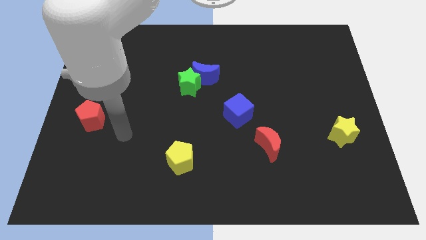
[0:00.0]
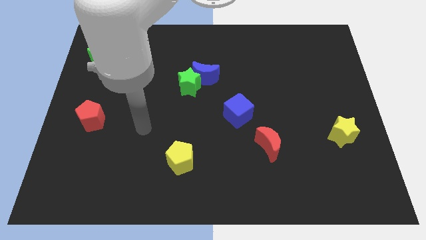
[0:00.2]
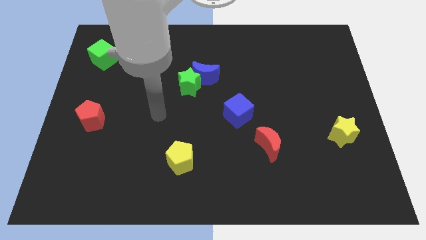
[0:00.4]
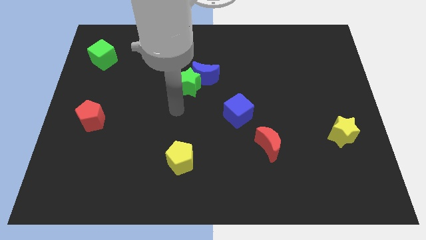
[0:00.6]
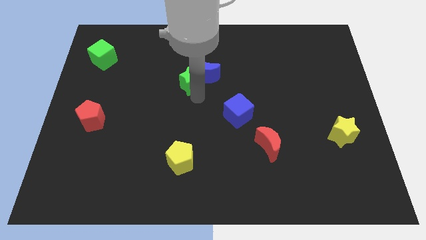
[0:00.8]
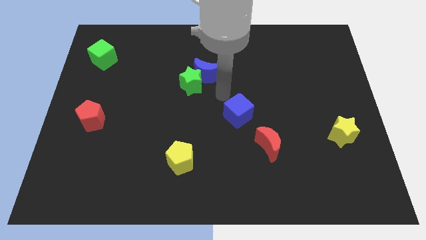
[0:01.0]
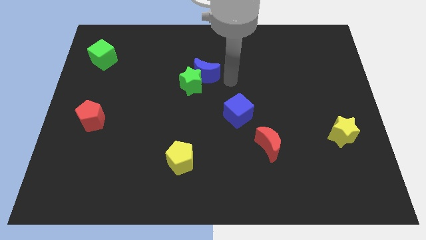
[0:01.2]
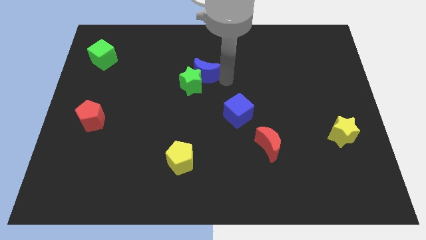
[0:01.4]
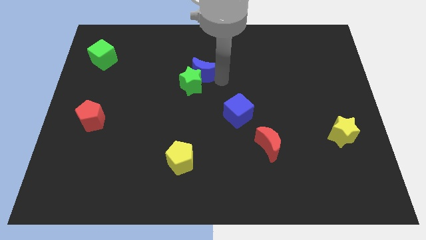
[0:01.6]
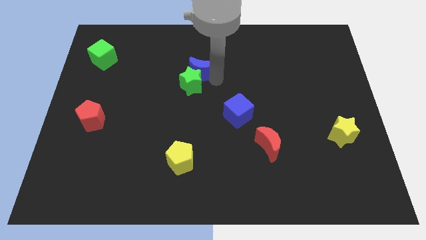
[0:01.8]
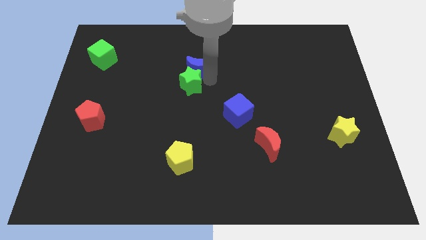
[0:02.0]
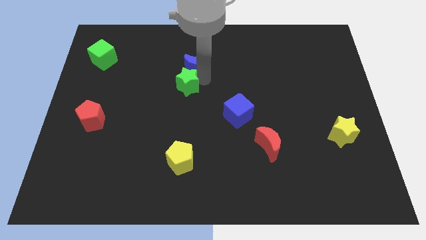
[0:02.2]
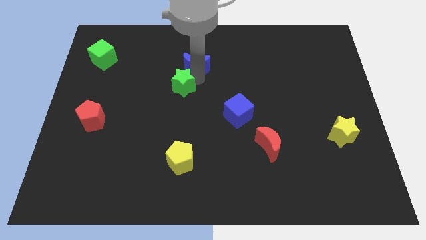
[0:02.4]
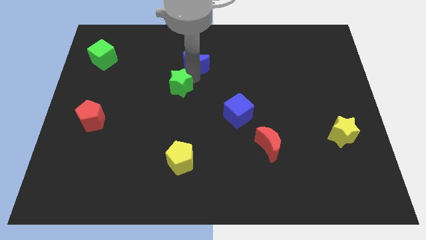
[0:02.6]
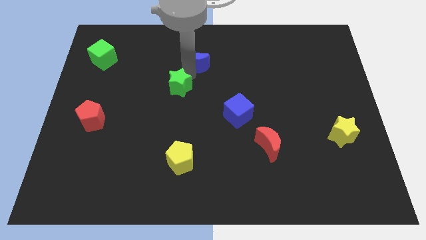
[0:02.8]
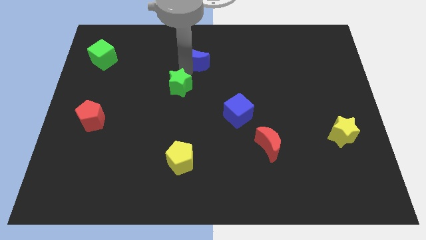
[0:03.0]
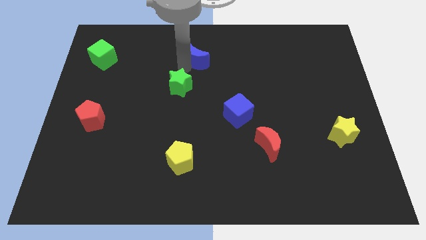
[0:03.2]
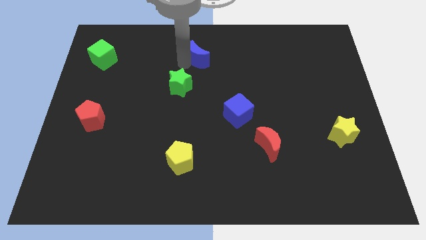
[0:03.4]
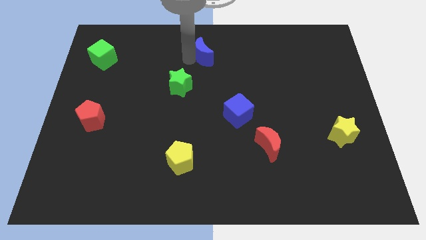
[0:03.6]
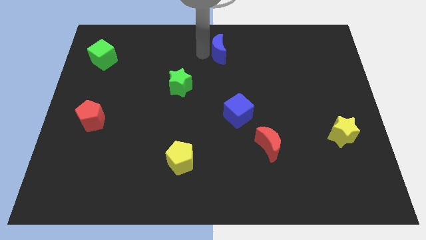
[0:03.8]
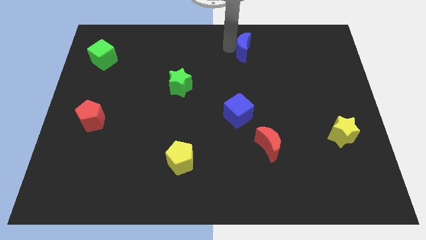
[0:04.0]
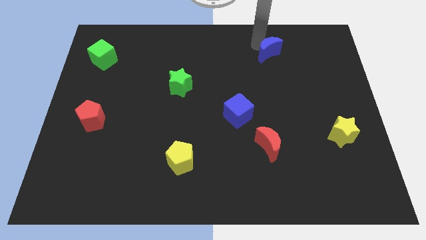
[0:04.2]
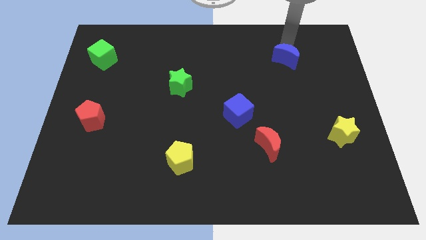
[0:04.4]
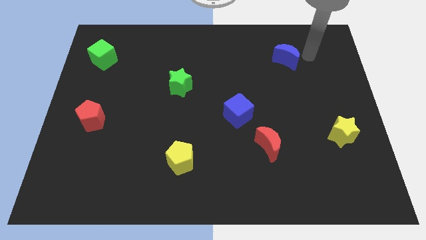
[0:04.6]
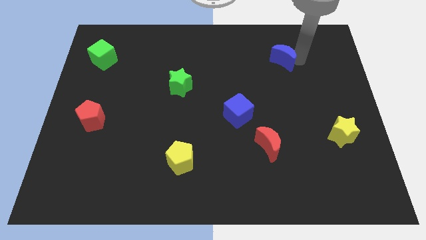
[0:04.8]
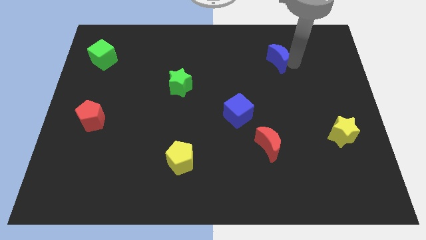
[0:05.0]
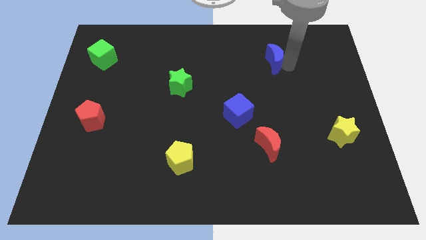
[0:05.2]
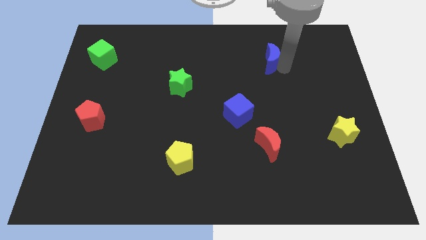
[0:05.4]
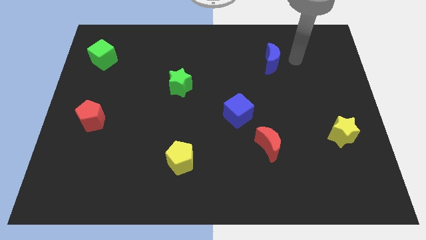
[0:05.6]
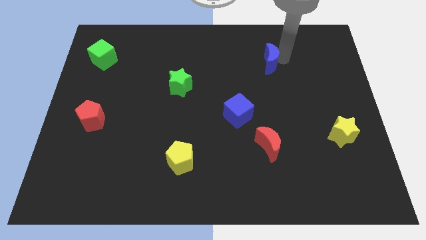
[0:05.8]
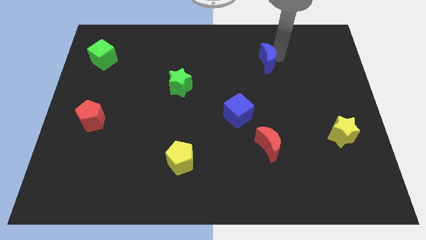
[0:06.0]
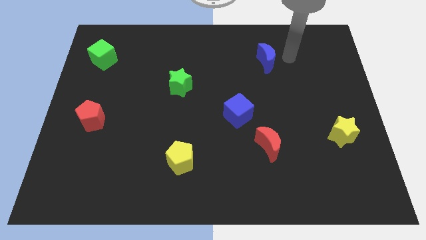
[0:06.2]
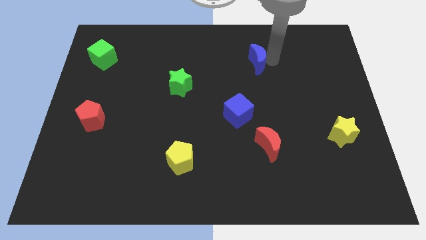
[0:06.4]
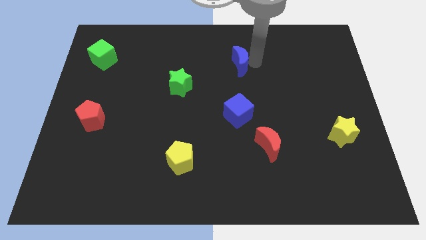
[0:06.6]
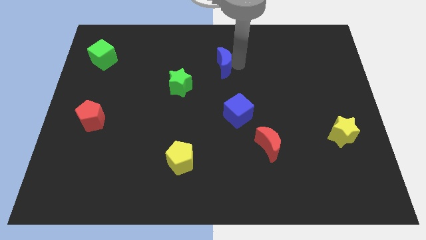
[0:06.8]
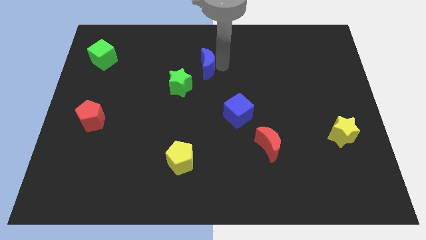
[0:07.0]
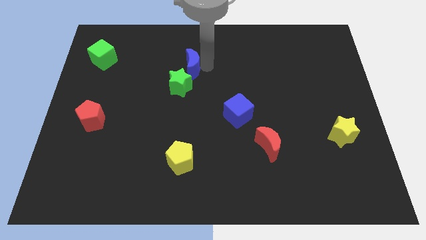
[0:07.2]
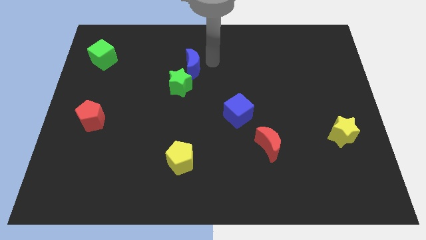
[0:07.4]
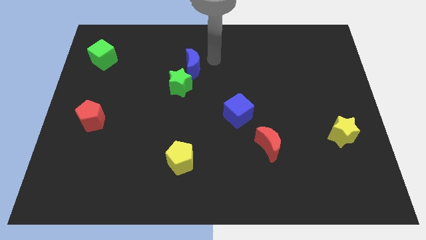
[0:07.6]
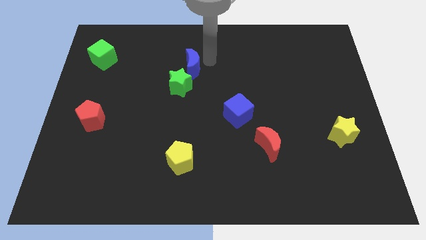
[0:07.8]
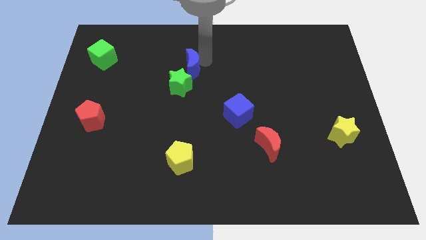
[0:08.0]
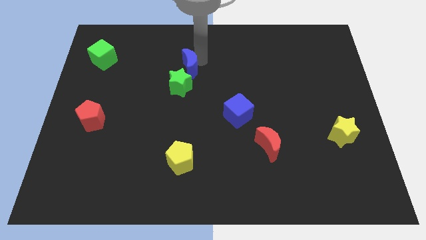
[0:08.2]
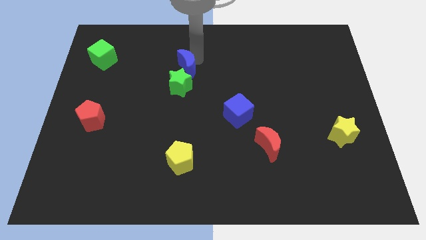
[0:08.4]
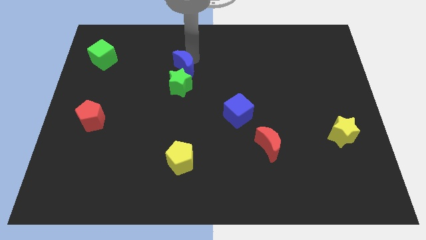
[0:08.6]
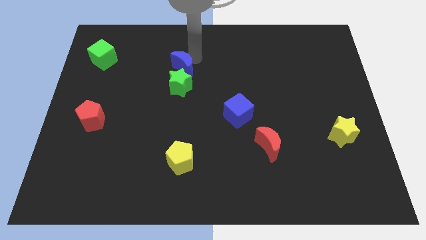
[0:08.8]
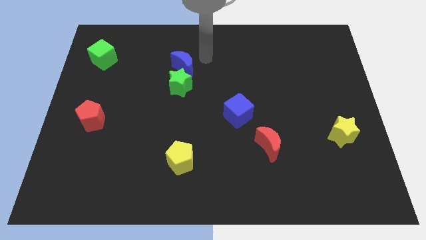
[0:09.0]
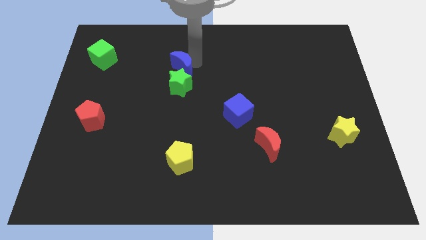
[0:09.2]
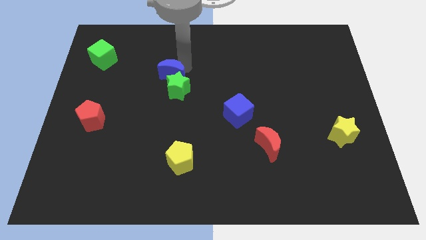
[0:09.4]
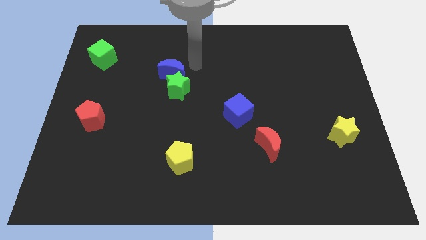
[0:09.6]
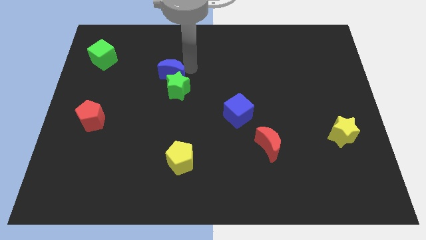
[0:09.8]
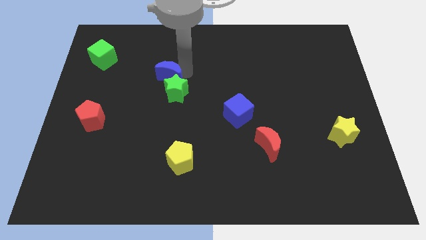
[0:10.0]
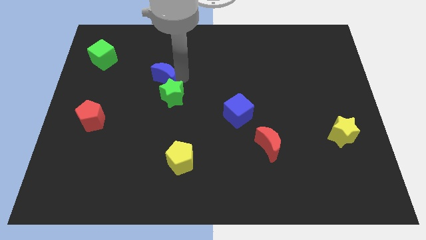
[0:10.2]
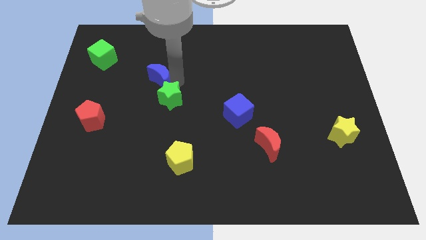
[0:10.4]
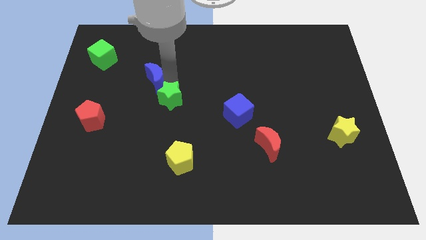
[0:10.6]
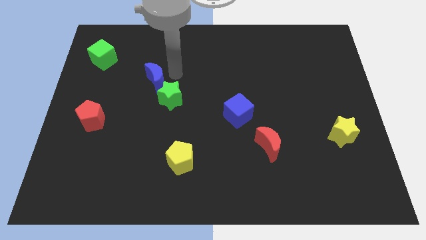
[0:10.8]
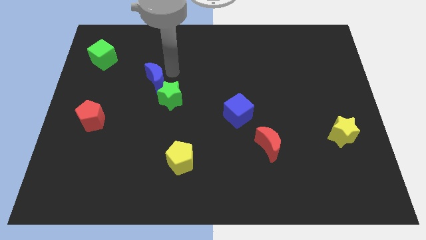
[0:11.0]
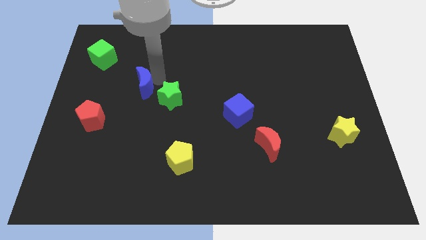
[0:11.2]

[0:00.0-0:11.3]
move the blue moon to the left of the green star

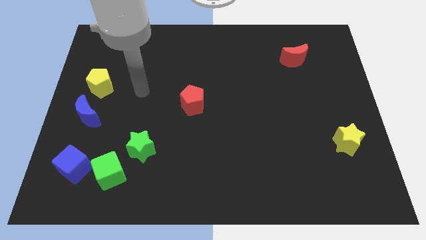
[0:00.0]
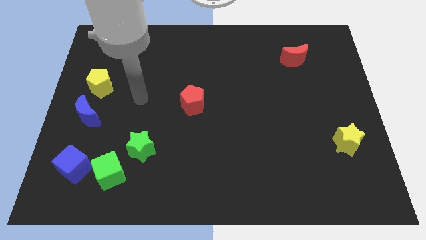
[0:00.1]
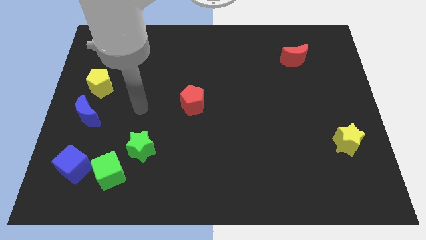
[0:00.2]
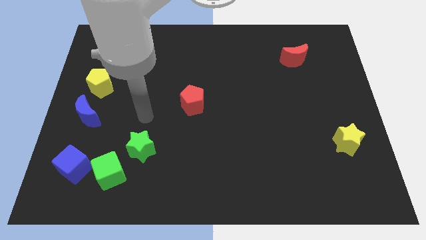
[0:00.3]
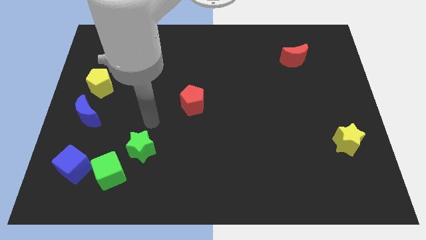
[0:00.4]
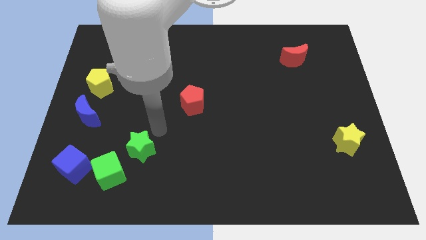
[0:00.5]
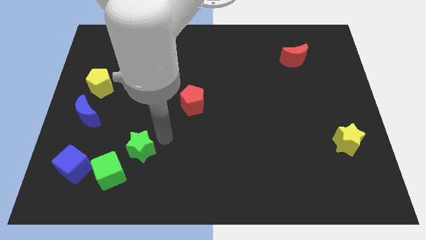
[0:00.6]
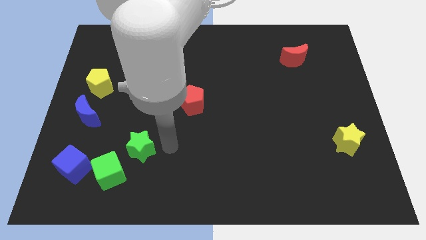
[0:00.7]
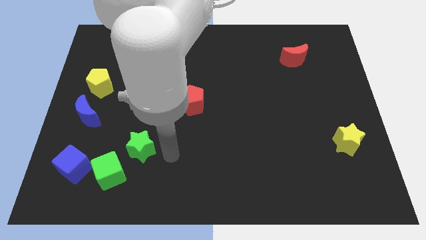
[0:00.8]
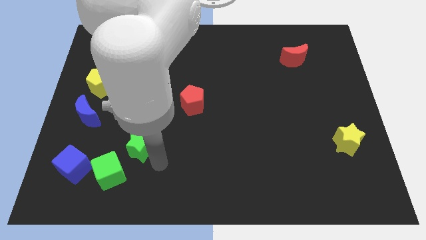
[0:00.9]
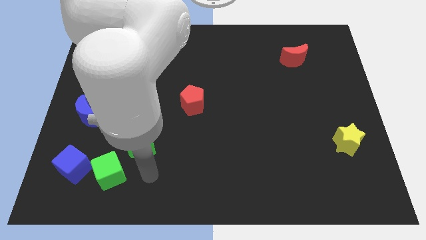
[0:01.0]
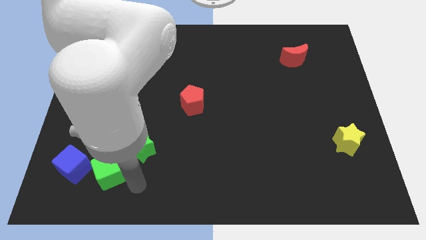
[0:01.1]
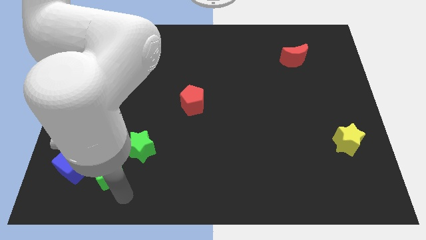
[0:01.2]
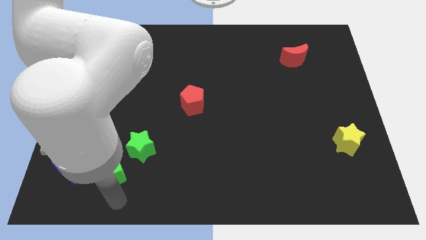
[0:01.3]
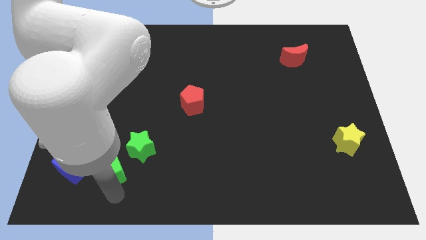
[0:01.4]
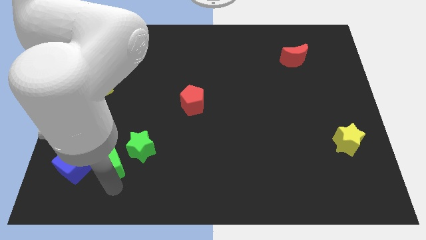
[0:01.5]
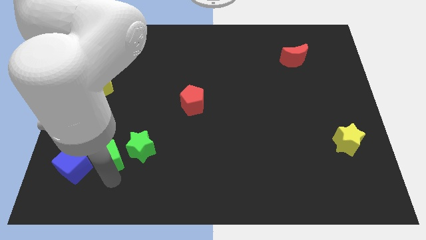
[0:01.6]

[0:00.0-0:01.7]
push the green cube to the top right of the blue cube
